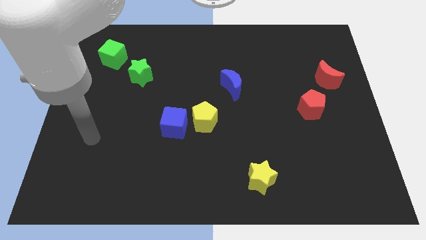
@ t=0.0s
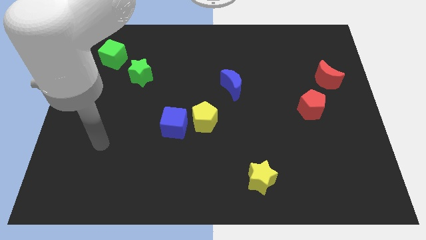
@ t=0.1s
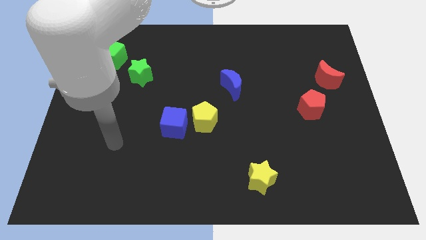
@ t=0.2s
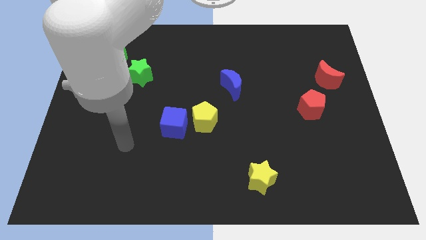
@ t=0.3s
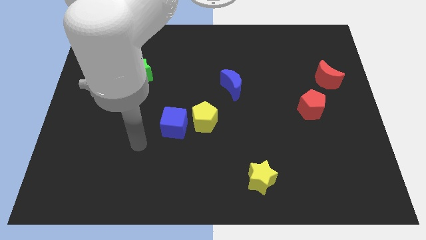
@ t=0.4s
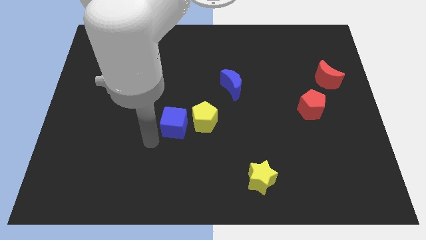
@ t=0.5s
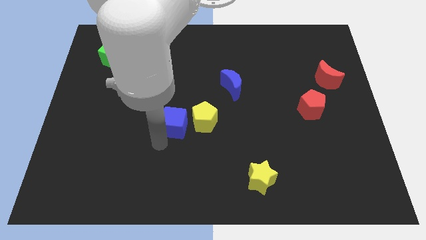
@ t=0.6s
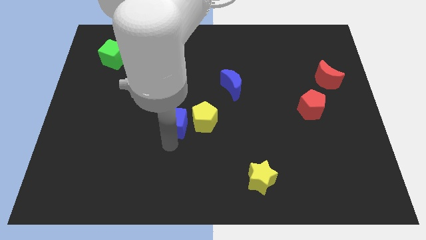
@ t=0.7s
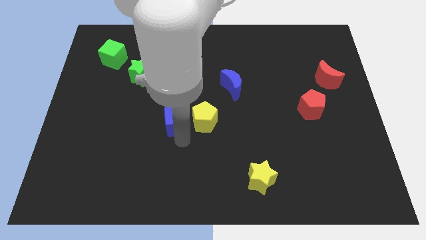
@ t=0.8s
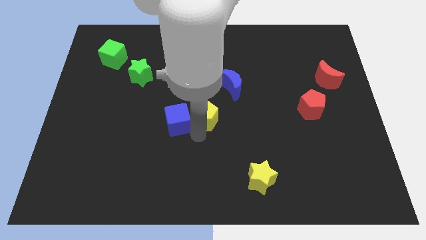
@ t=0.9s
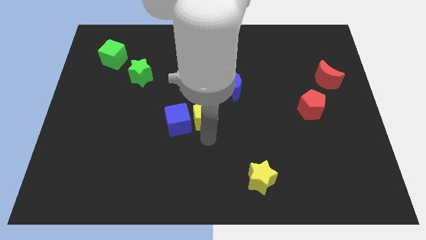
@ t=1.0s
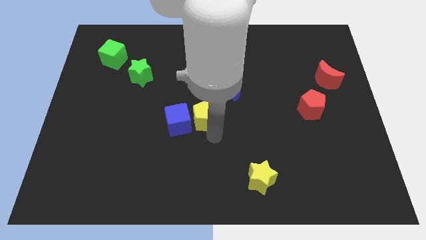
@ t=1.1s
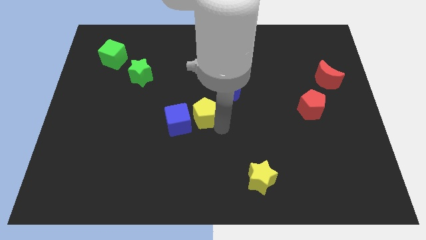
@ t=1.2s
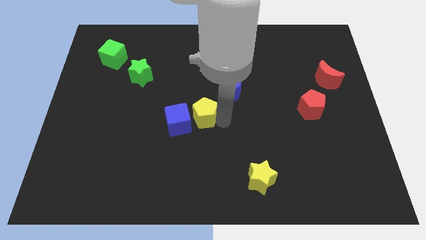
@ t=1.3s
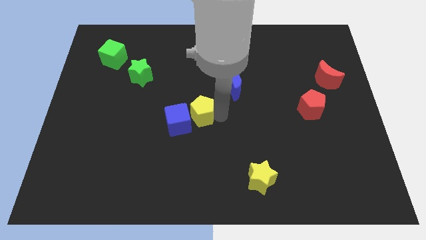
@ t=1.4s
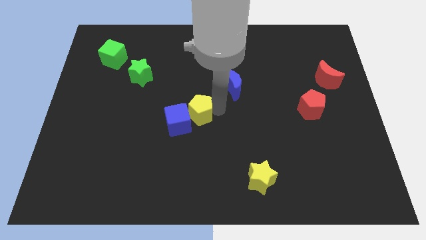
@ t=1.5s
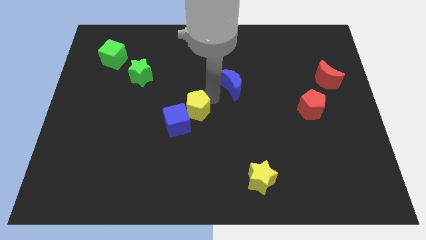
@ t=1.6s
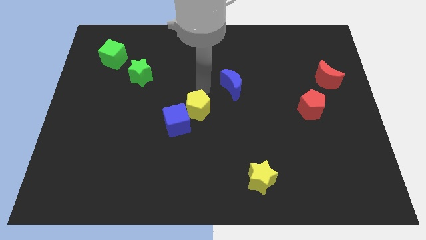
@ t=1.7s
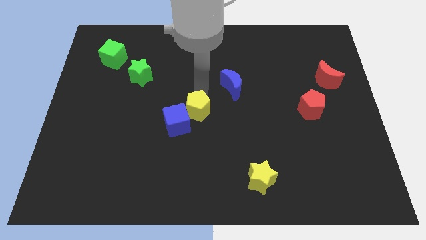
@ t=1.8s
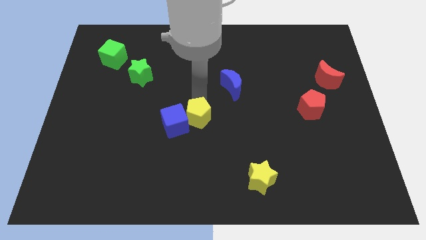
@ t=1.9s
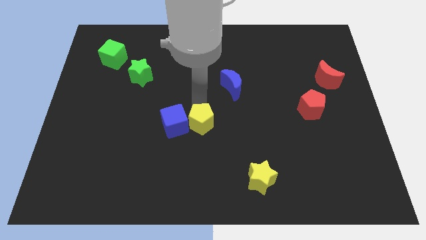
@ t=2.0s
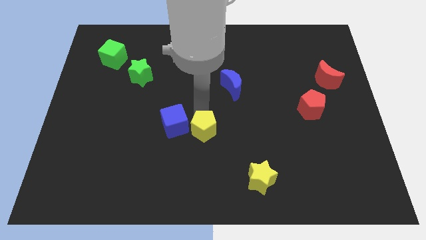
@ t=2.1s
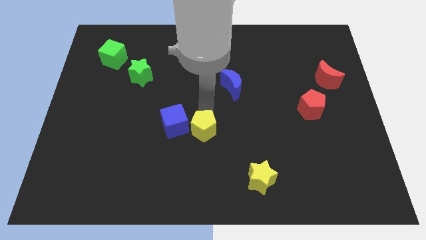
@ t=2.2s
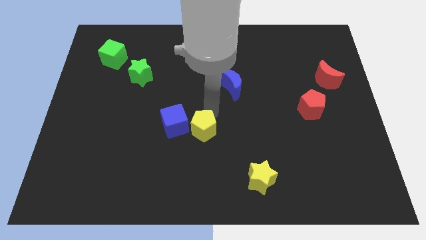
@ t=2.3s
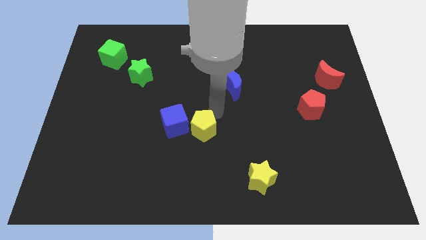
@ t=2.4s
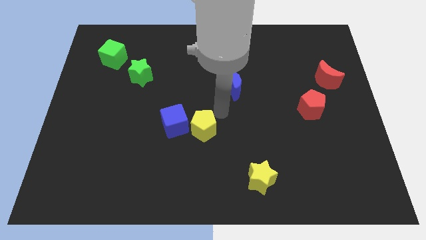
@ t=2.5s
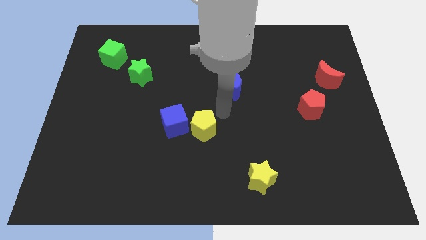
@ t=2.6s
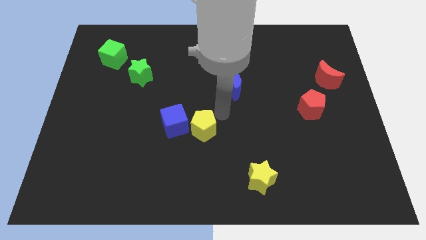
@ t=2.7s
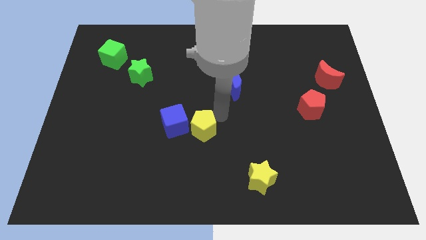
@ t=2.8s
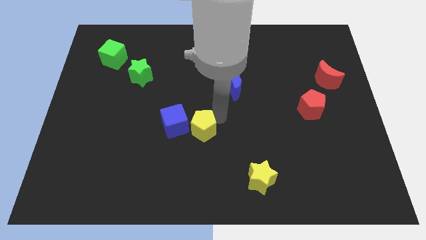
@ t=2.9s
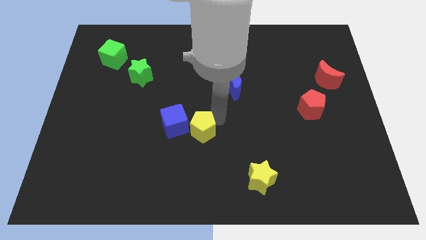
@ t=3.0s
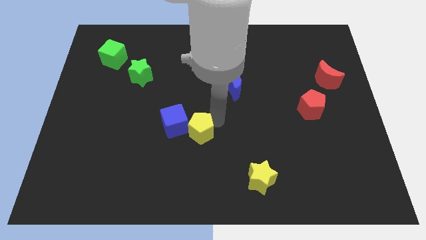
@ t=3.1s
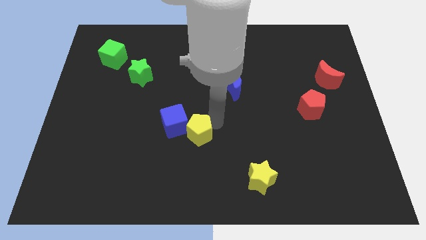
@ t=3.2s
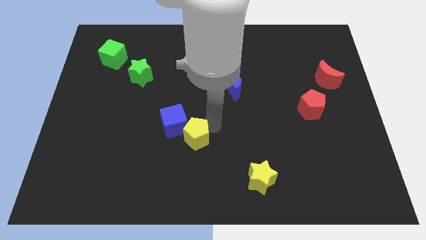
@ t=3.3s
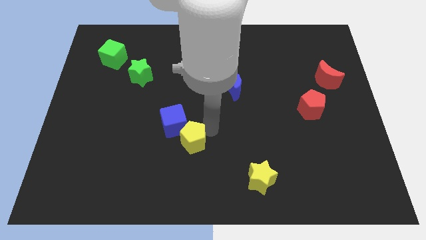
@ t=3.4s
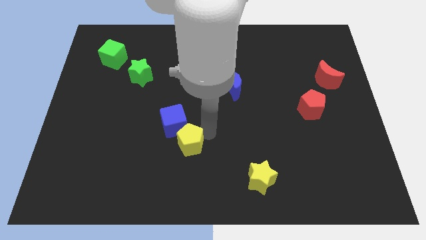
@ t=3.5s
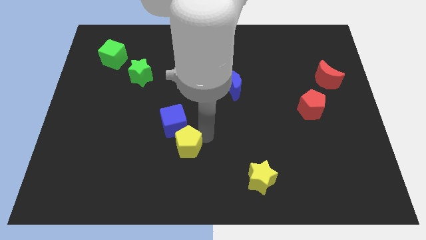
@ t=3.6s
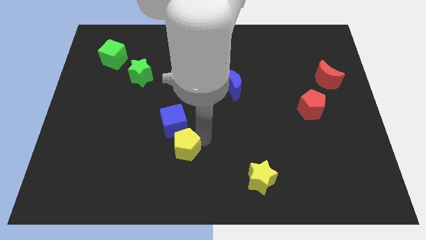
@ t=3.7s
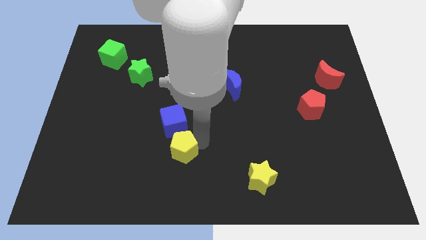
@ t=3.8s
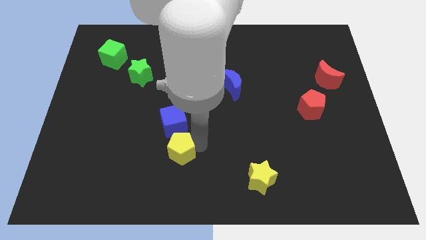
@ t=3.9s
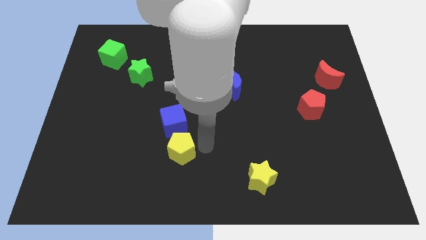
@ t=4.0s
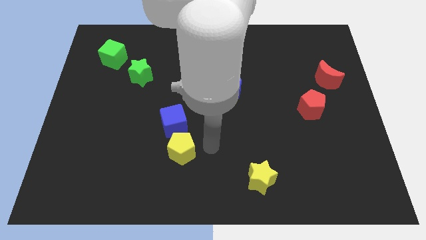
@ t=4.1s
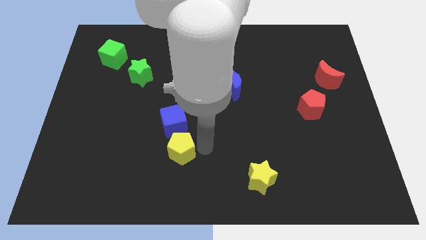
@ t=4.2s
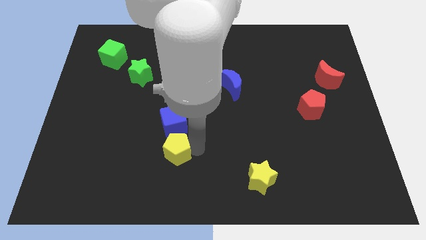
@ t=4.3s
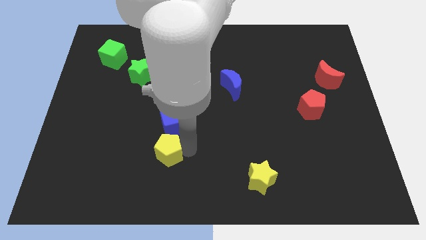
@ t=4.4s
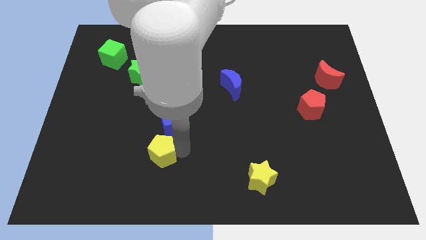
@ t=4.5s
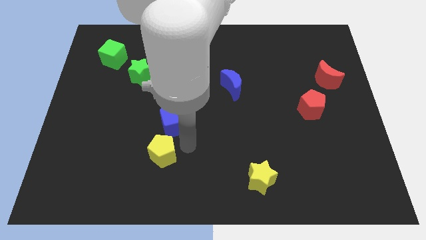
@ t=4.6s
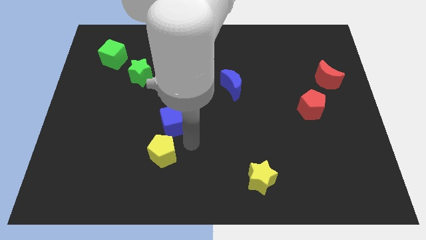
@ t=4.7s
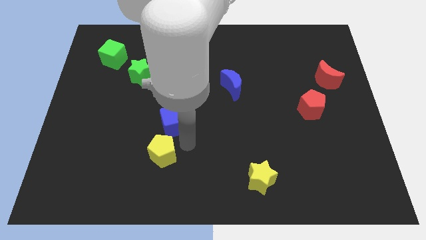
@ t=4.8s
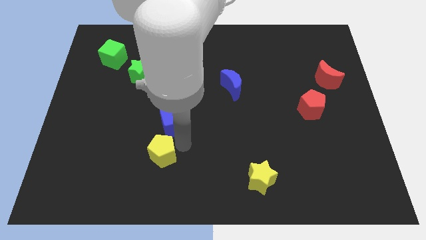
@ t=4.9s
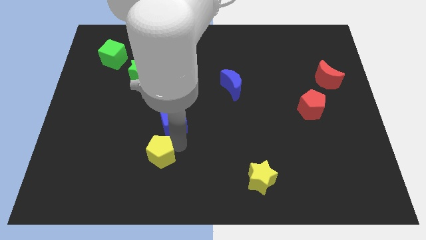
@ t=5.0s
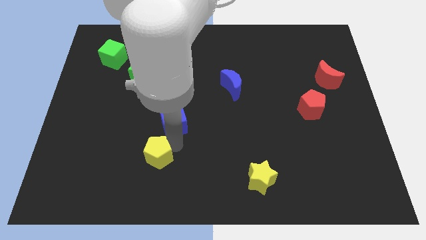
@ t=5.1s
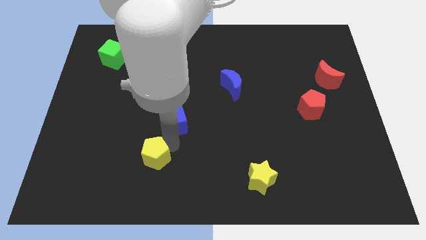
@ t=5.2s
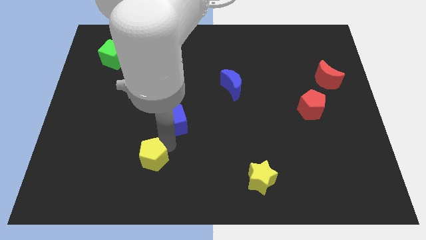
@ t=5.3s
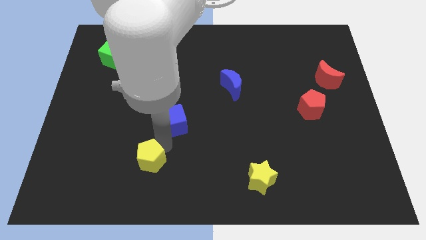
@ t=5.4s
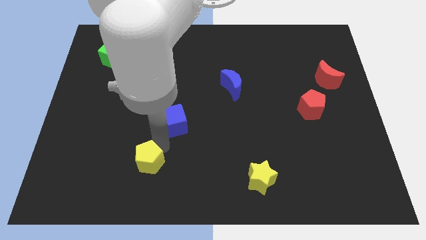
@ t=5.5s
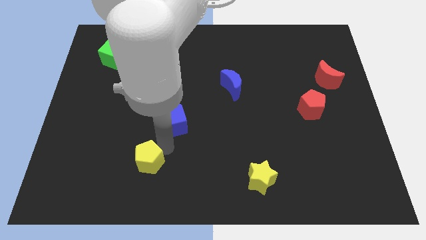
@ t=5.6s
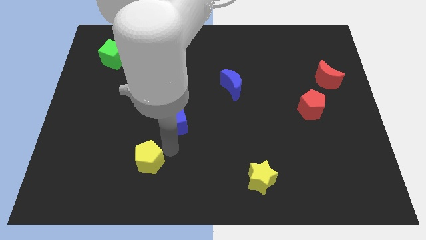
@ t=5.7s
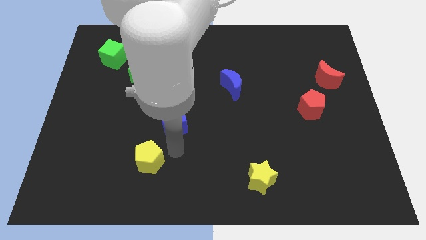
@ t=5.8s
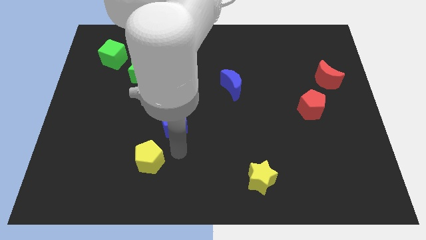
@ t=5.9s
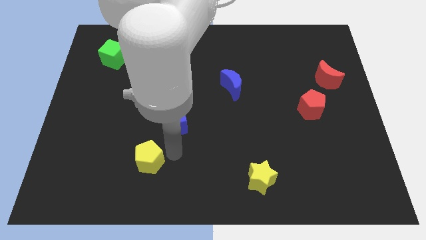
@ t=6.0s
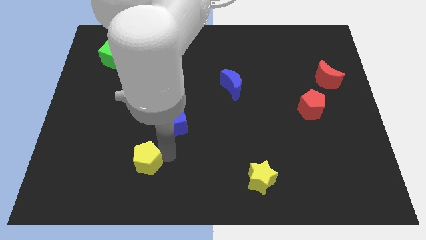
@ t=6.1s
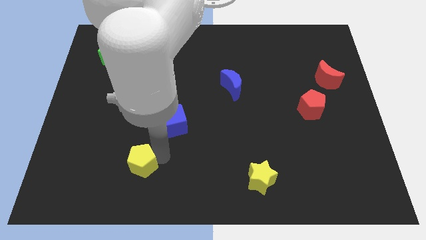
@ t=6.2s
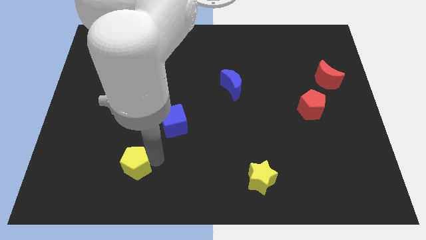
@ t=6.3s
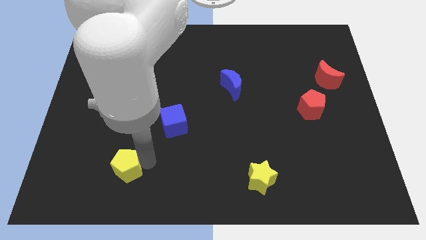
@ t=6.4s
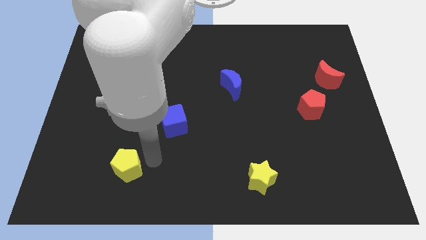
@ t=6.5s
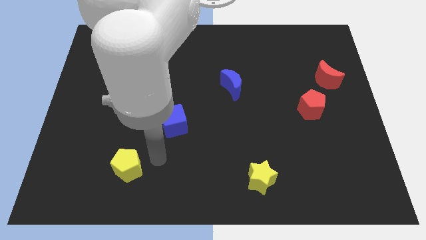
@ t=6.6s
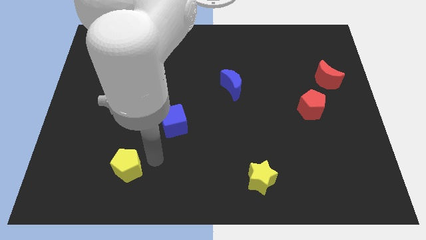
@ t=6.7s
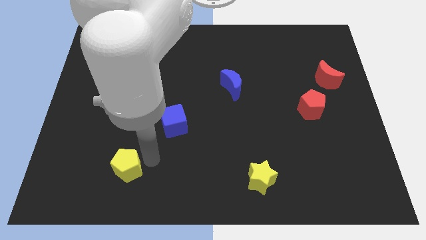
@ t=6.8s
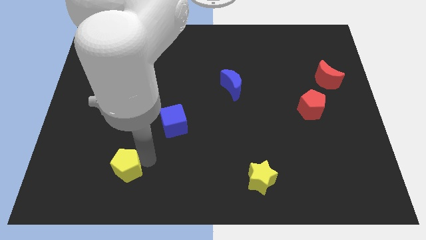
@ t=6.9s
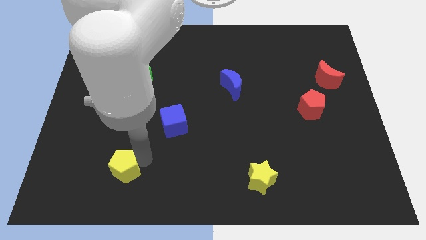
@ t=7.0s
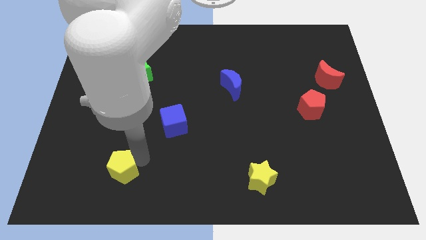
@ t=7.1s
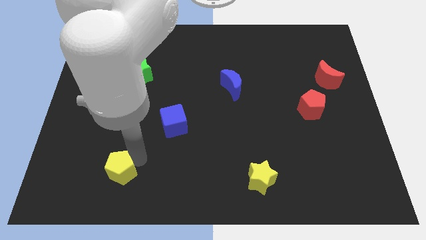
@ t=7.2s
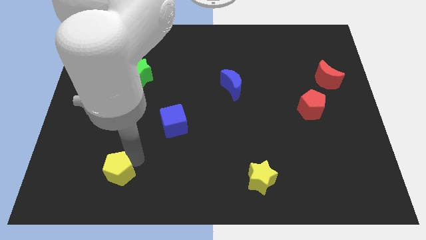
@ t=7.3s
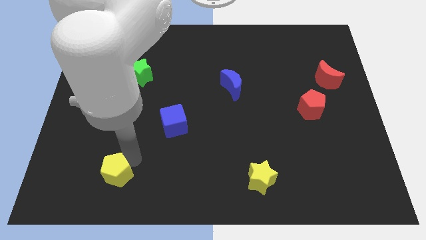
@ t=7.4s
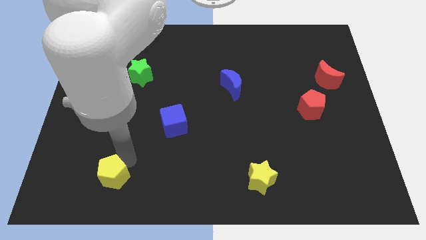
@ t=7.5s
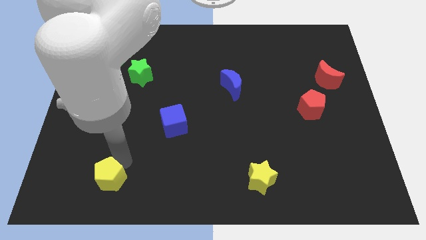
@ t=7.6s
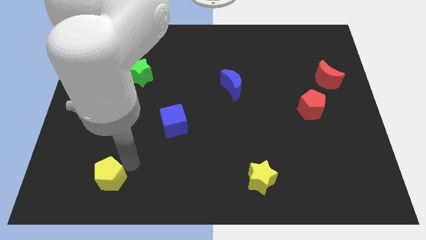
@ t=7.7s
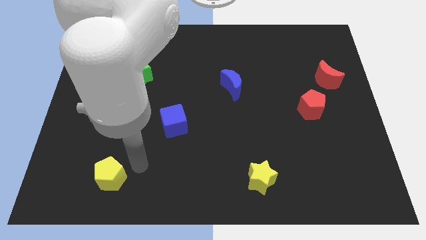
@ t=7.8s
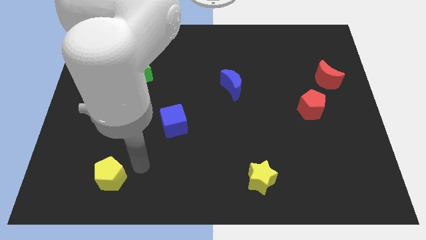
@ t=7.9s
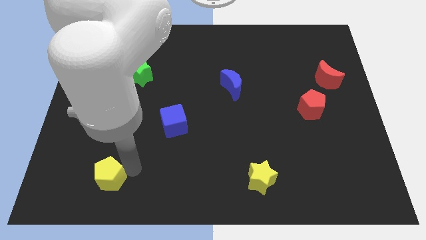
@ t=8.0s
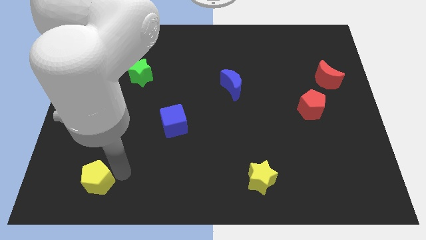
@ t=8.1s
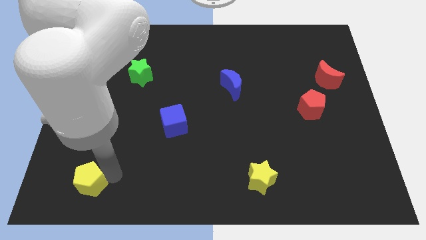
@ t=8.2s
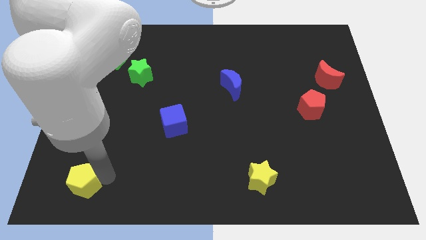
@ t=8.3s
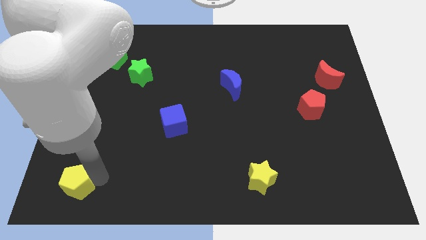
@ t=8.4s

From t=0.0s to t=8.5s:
push the yellow pentagon to the lower left corner
